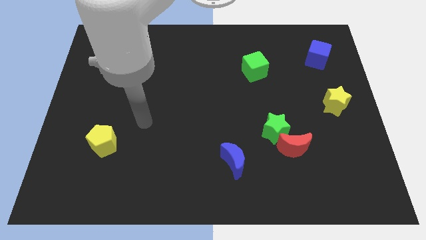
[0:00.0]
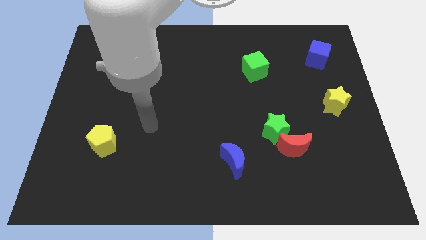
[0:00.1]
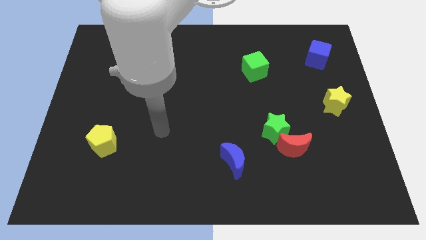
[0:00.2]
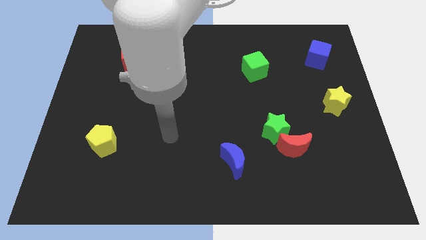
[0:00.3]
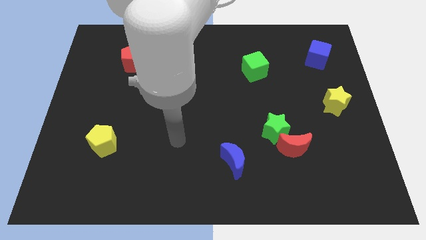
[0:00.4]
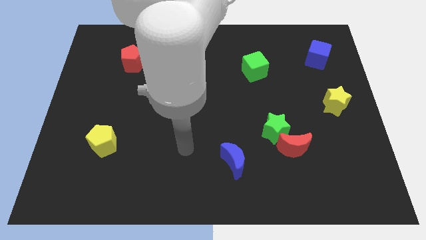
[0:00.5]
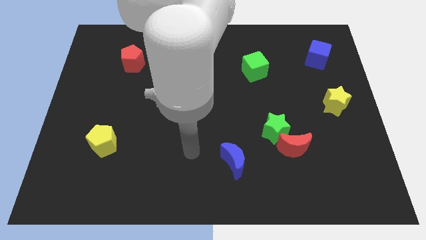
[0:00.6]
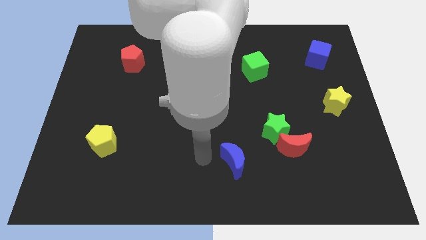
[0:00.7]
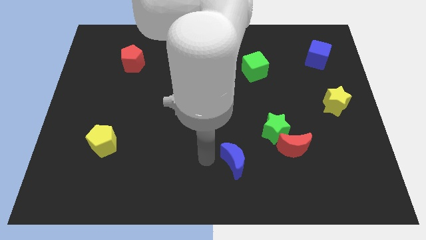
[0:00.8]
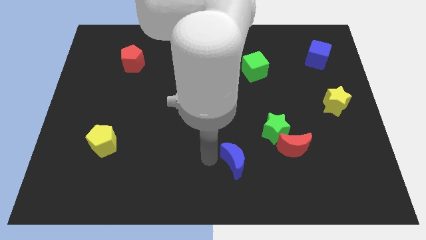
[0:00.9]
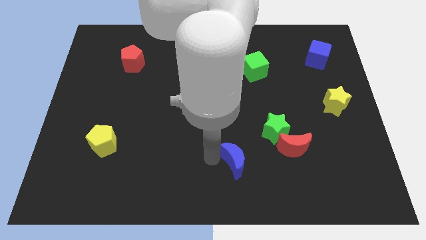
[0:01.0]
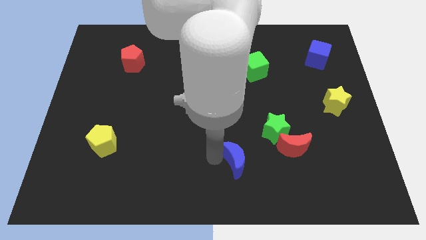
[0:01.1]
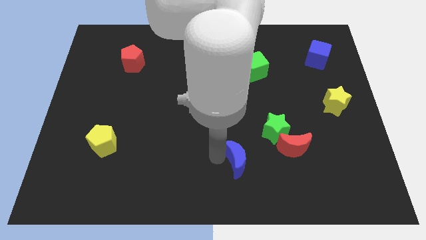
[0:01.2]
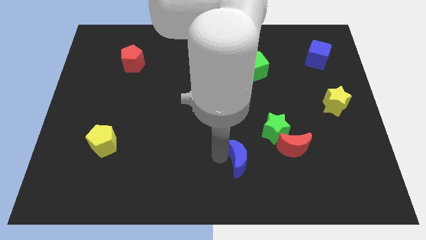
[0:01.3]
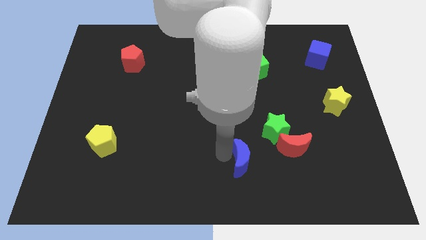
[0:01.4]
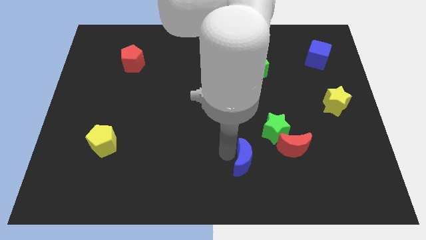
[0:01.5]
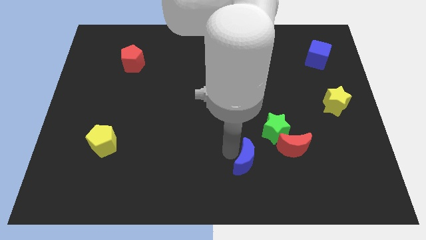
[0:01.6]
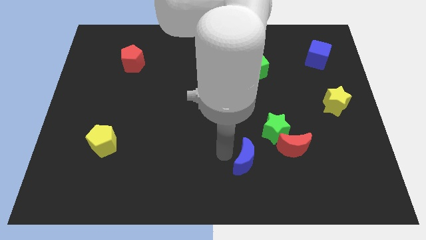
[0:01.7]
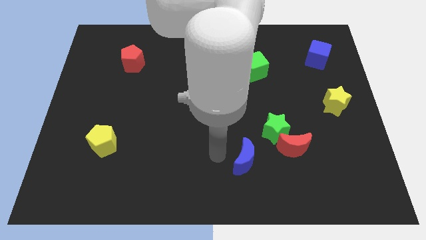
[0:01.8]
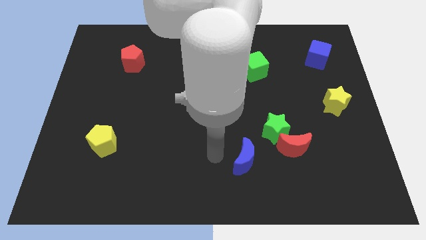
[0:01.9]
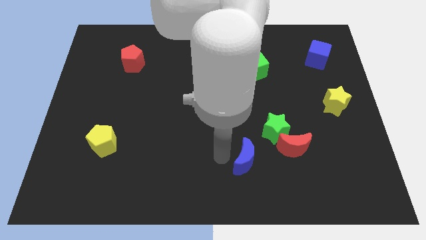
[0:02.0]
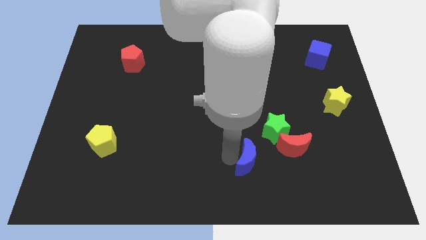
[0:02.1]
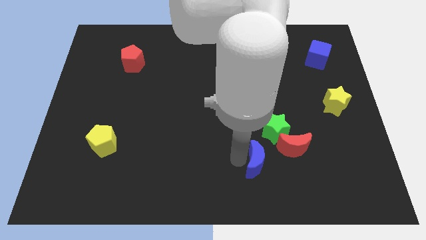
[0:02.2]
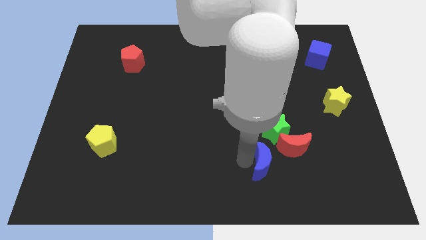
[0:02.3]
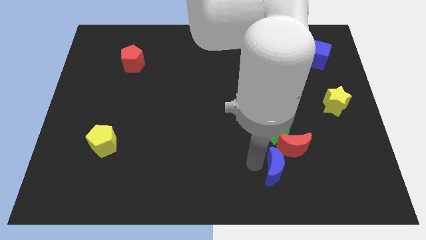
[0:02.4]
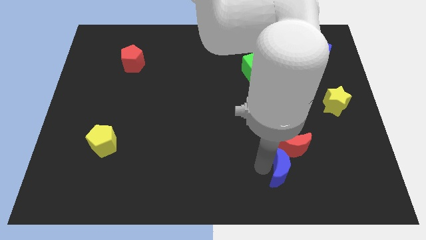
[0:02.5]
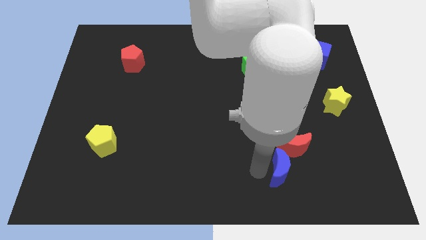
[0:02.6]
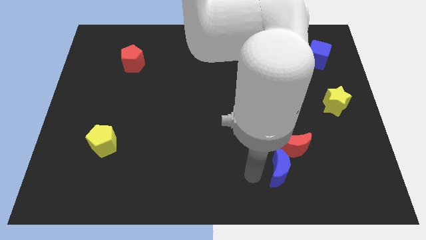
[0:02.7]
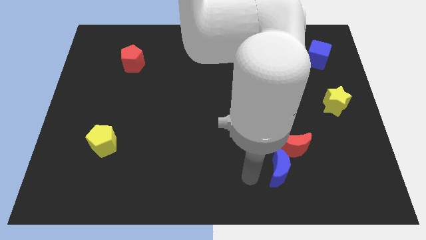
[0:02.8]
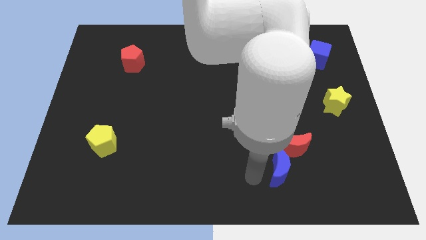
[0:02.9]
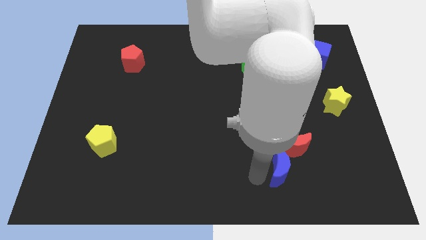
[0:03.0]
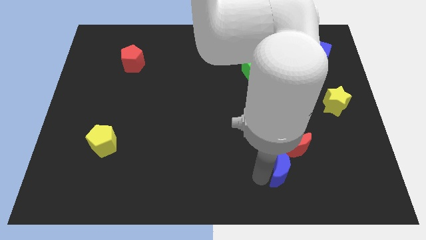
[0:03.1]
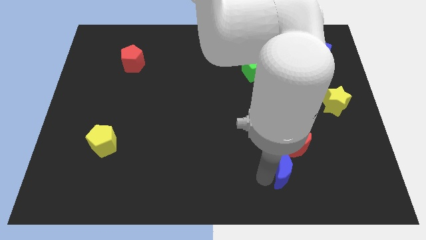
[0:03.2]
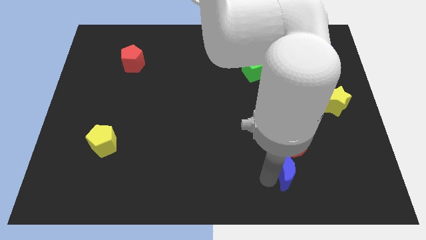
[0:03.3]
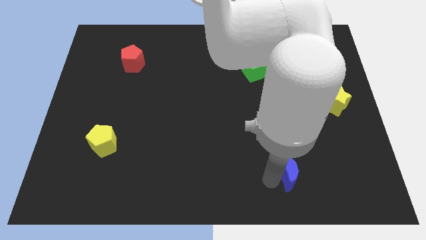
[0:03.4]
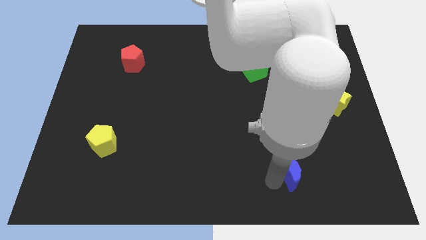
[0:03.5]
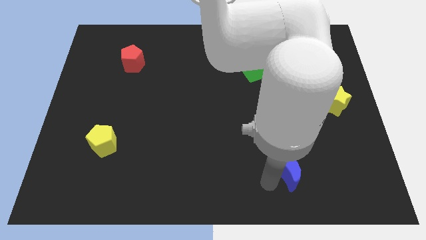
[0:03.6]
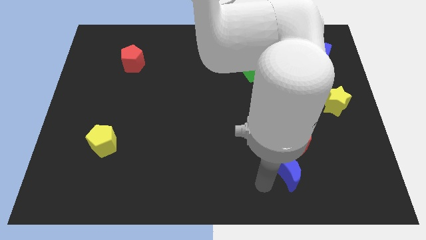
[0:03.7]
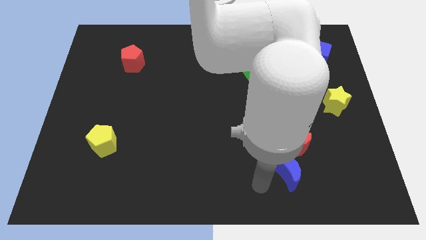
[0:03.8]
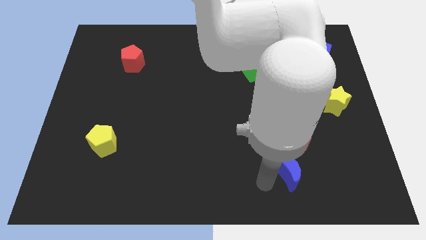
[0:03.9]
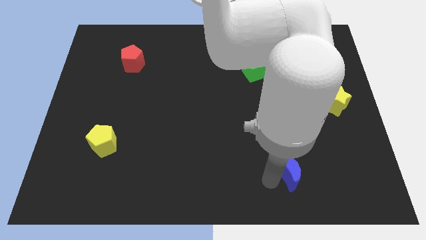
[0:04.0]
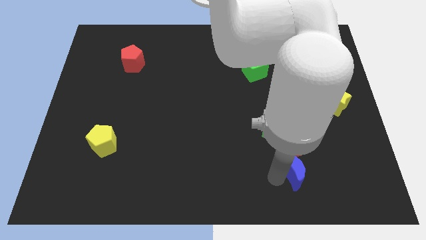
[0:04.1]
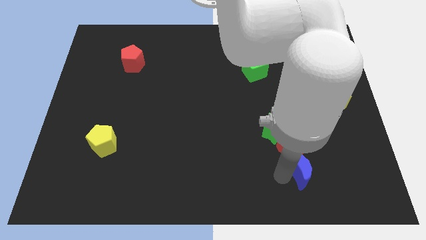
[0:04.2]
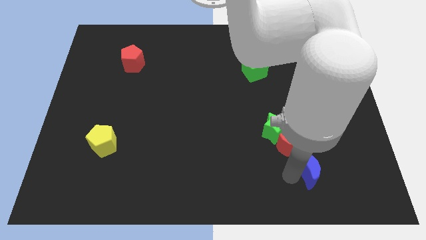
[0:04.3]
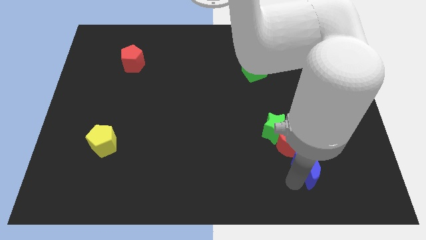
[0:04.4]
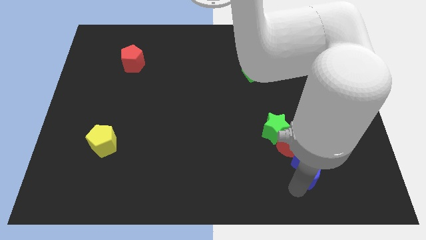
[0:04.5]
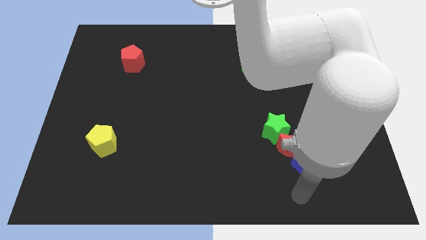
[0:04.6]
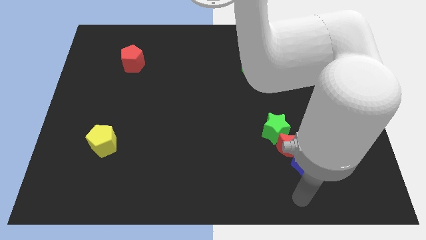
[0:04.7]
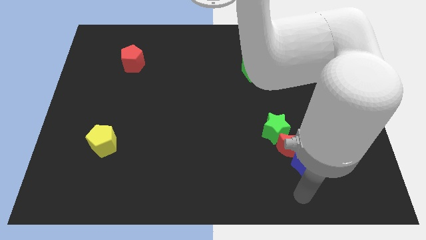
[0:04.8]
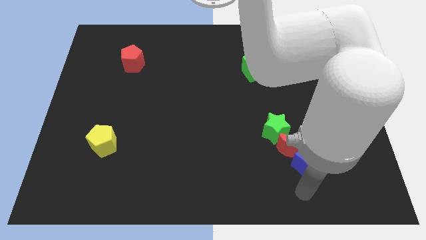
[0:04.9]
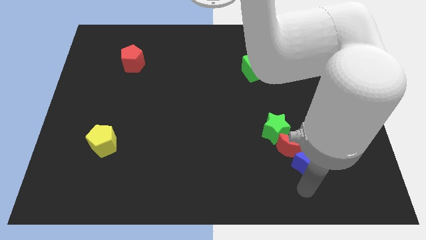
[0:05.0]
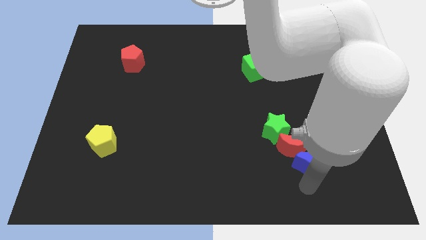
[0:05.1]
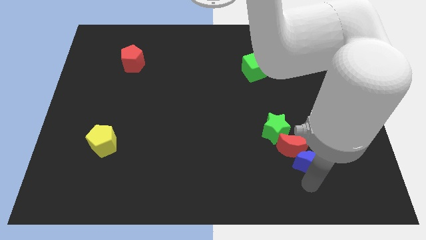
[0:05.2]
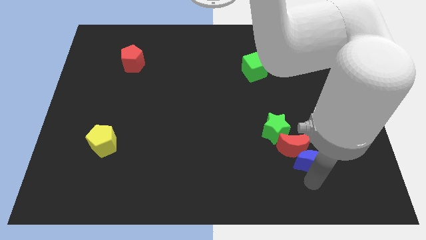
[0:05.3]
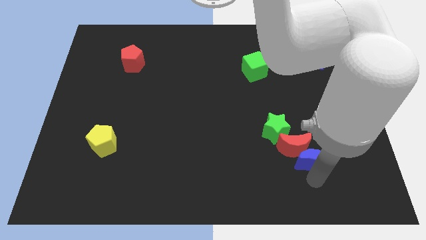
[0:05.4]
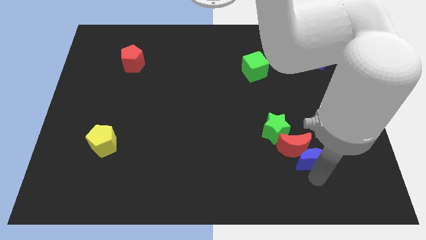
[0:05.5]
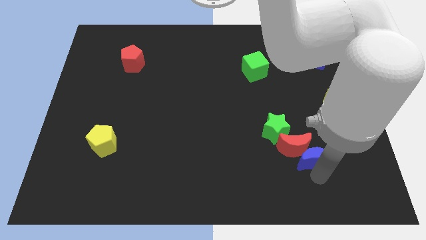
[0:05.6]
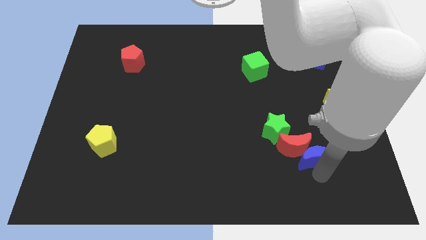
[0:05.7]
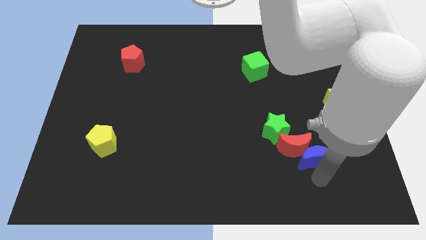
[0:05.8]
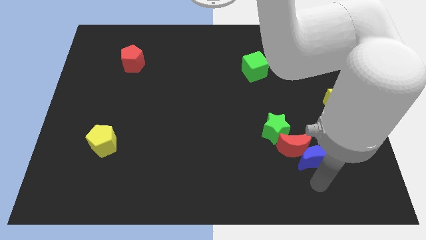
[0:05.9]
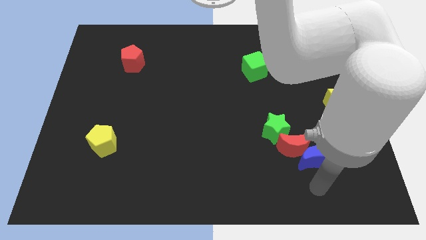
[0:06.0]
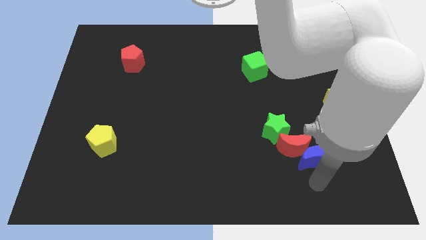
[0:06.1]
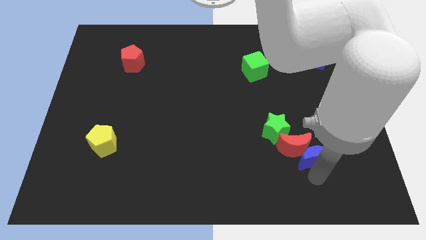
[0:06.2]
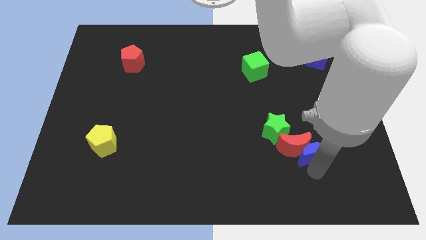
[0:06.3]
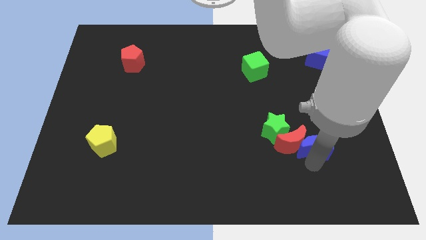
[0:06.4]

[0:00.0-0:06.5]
push the blue moon just right of the green star

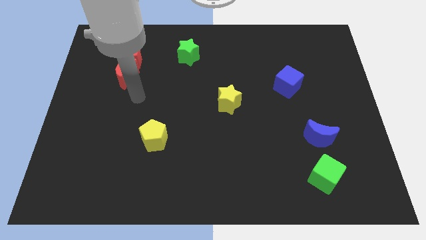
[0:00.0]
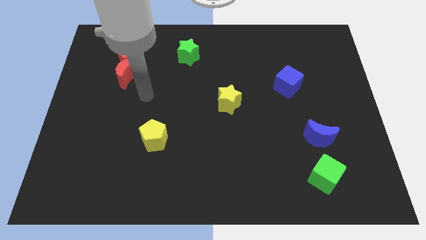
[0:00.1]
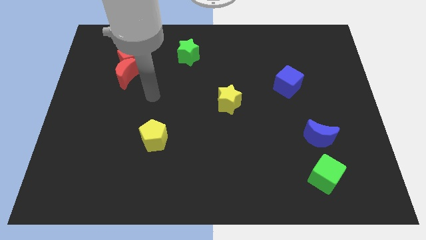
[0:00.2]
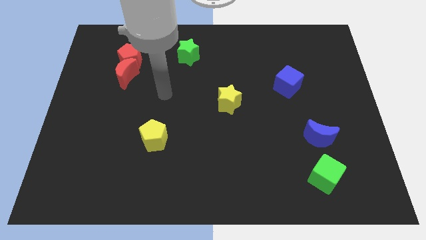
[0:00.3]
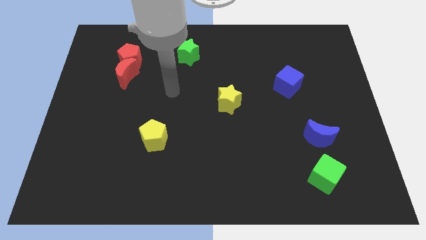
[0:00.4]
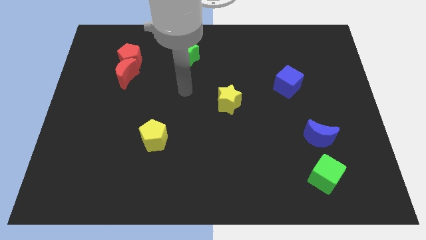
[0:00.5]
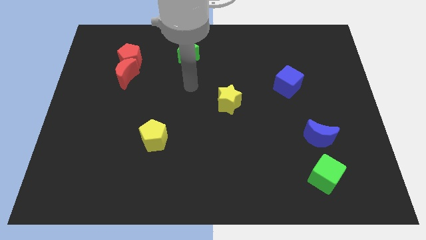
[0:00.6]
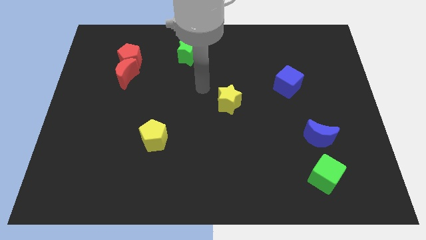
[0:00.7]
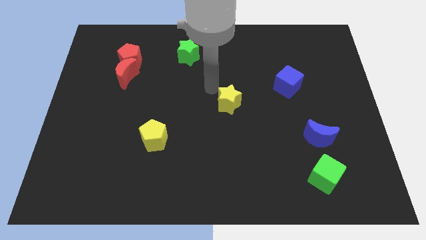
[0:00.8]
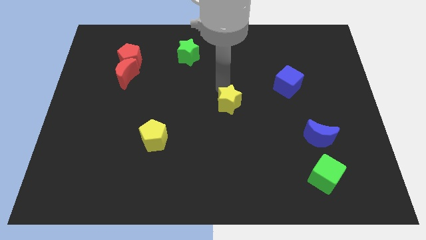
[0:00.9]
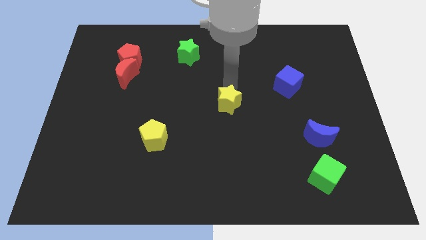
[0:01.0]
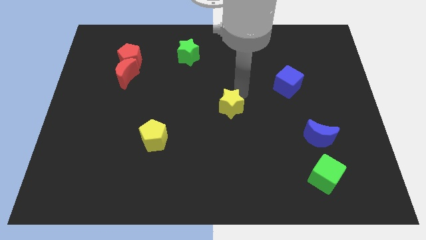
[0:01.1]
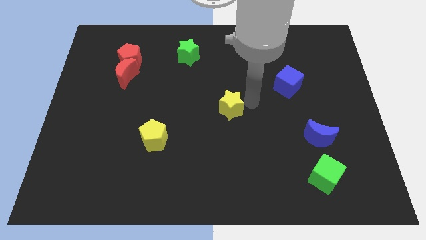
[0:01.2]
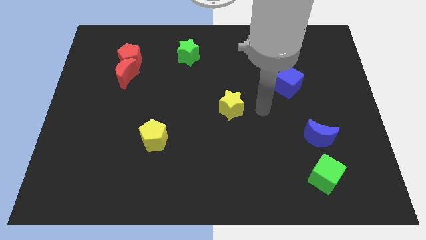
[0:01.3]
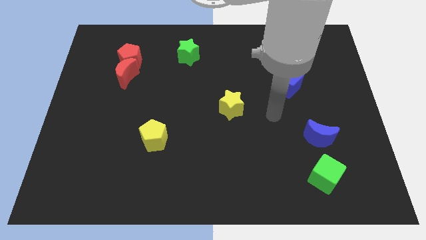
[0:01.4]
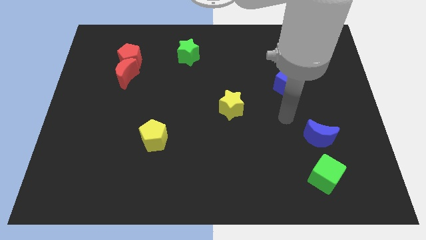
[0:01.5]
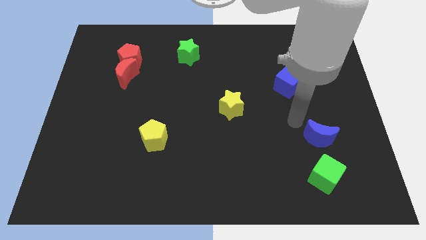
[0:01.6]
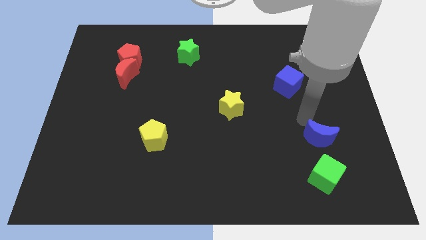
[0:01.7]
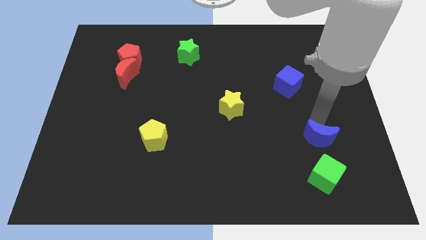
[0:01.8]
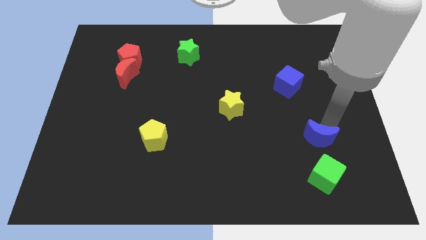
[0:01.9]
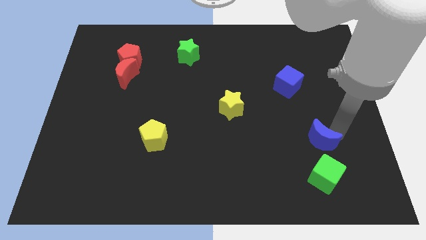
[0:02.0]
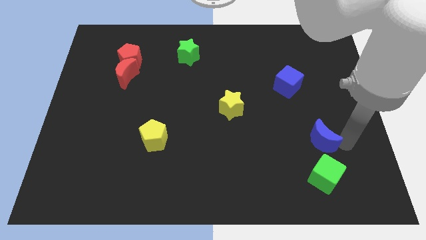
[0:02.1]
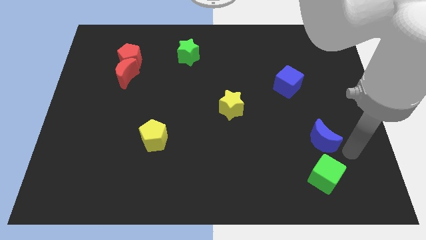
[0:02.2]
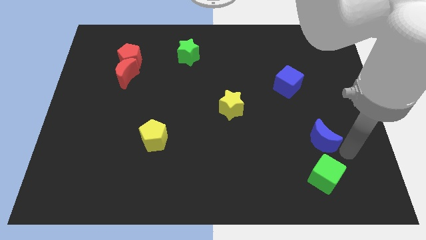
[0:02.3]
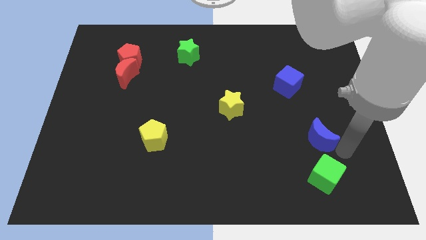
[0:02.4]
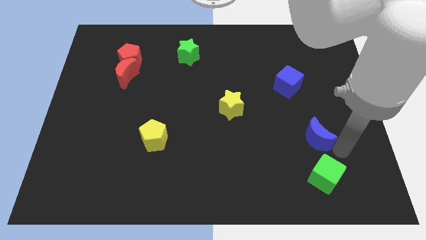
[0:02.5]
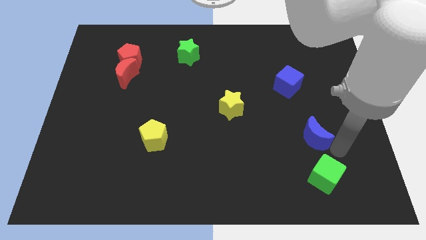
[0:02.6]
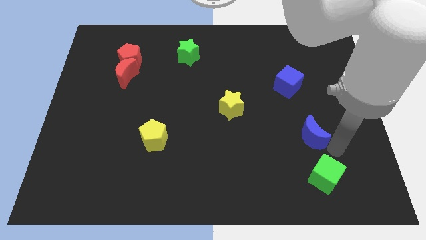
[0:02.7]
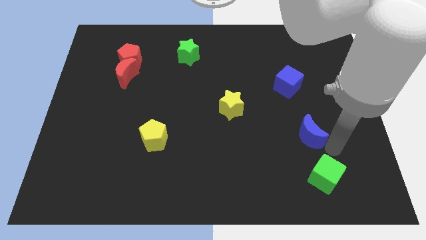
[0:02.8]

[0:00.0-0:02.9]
put the blue moon to the bottom of the blue cube
